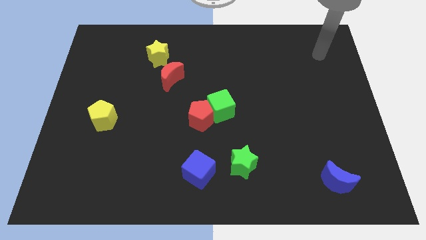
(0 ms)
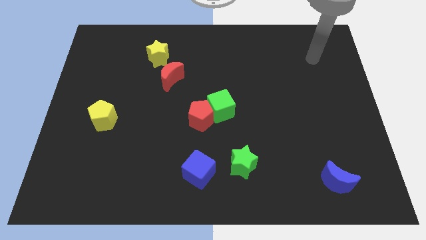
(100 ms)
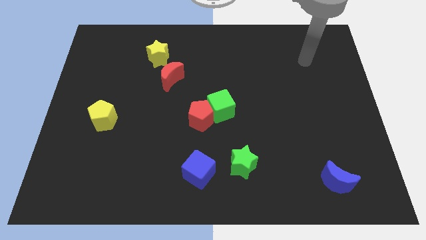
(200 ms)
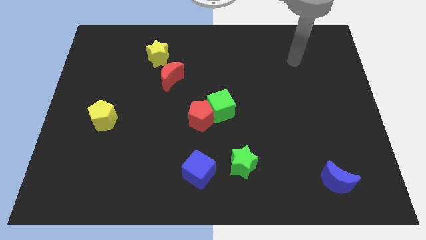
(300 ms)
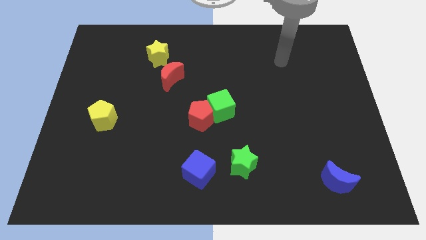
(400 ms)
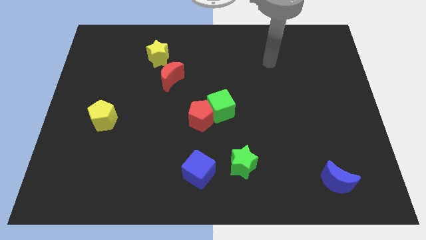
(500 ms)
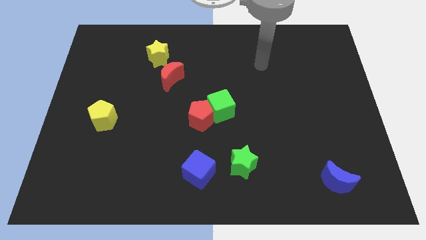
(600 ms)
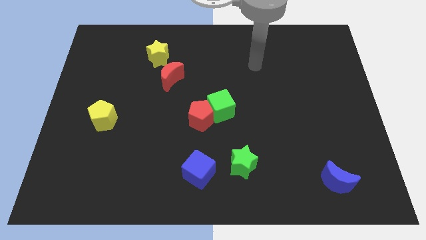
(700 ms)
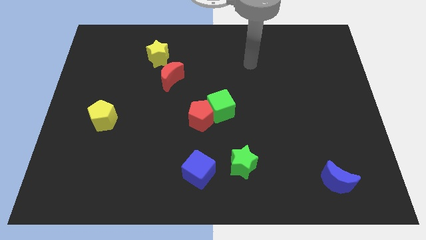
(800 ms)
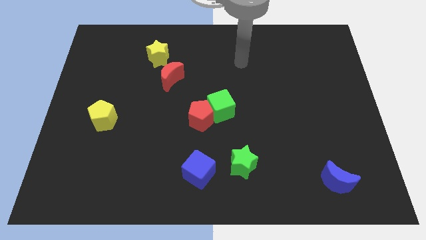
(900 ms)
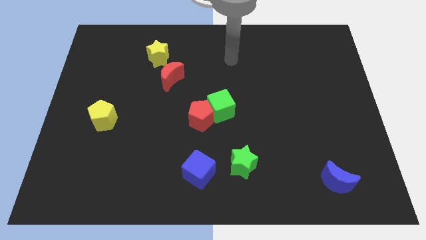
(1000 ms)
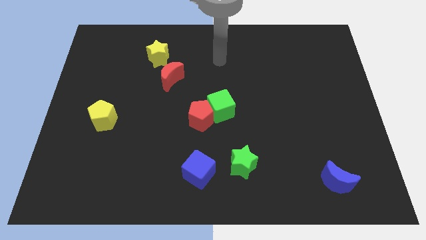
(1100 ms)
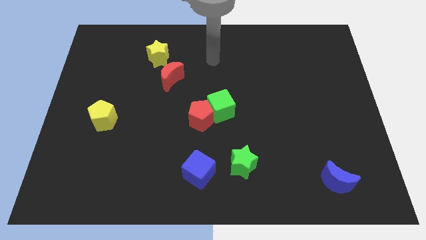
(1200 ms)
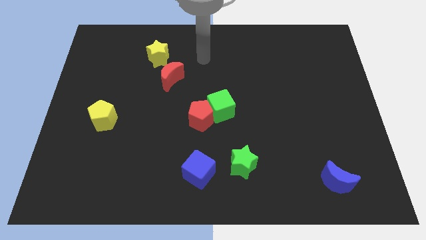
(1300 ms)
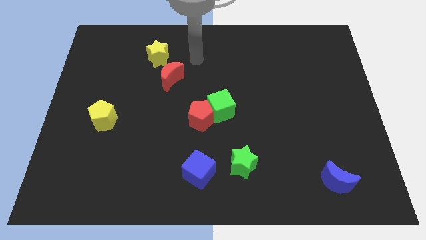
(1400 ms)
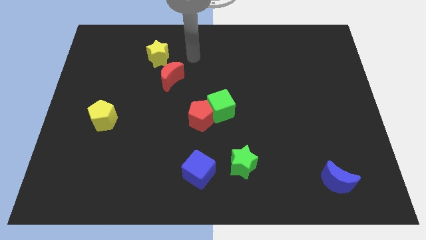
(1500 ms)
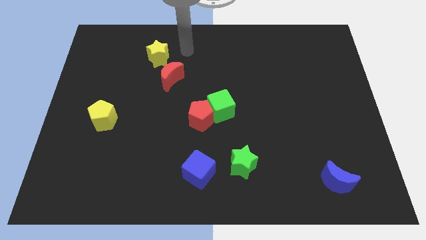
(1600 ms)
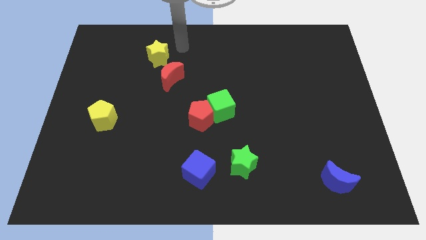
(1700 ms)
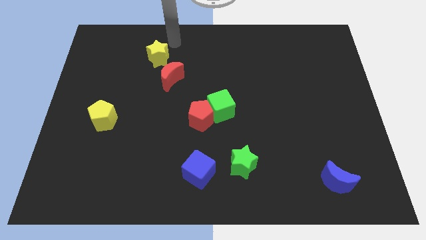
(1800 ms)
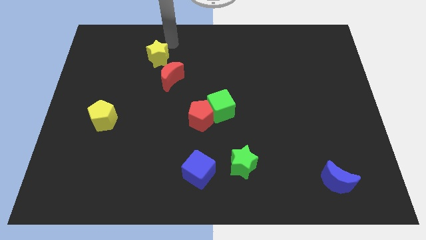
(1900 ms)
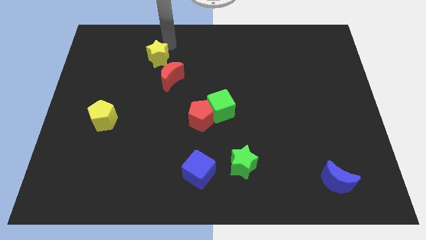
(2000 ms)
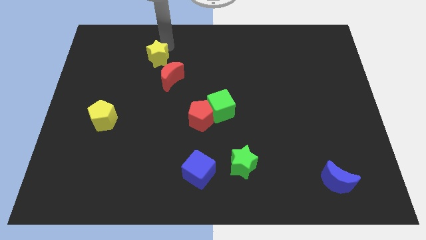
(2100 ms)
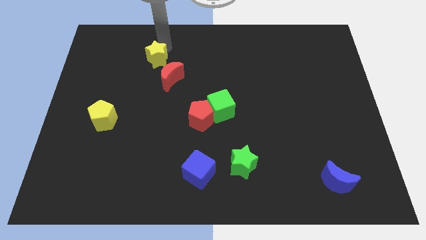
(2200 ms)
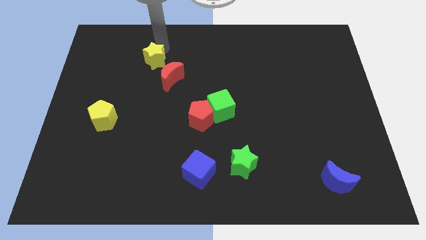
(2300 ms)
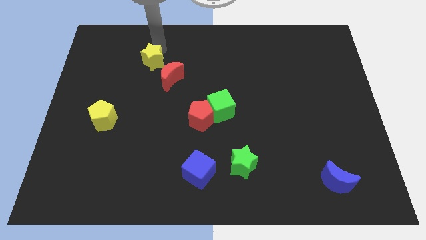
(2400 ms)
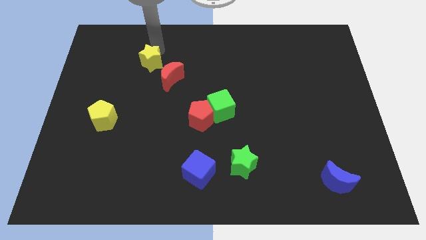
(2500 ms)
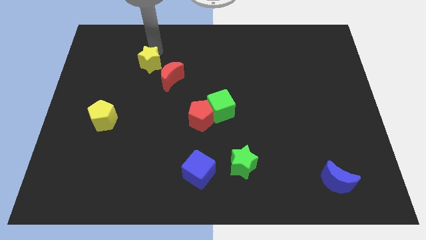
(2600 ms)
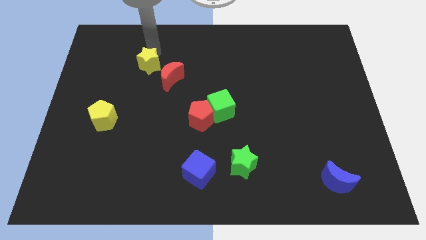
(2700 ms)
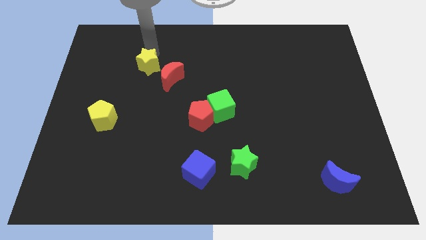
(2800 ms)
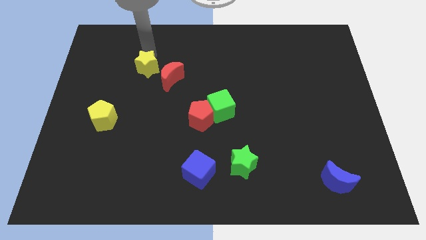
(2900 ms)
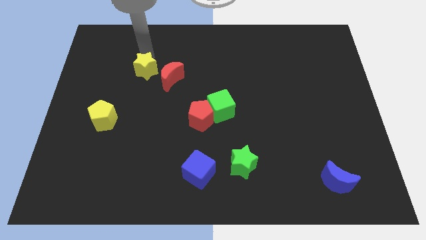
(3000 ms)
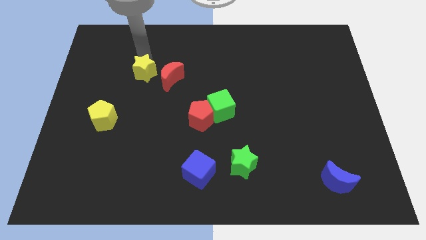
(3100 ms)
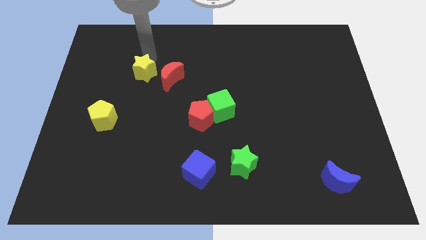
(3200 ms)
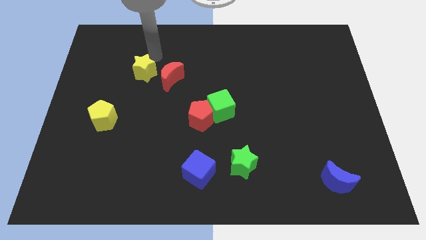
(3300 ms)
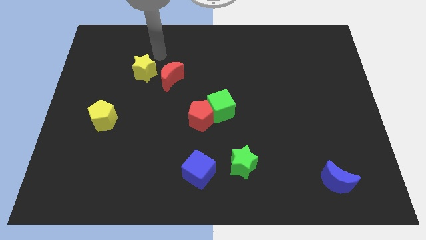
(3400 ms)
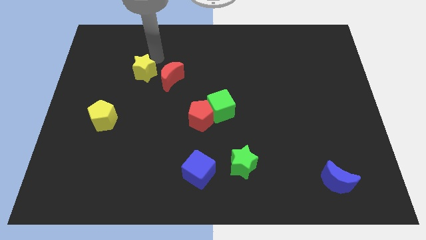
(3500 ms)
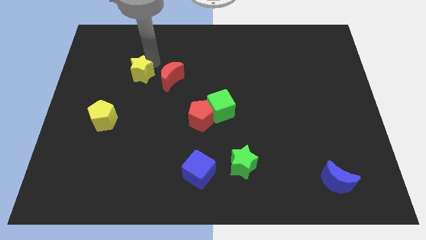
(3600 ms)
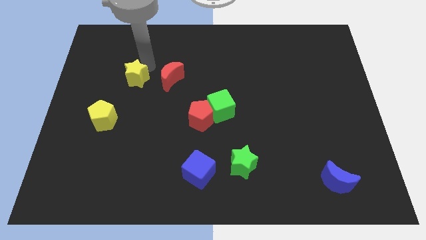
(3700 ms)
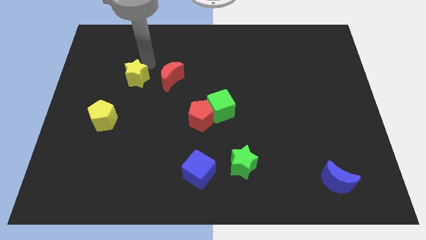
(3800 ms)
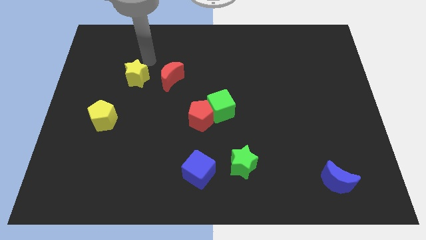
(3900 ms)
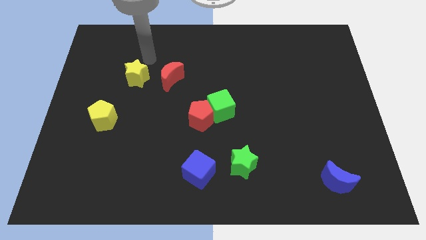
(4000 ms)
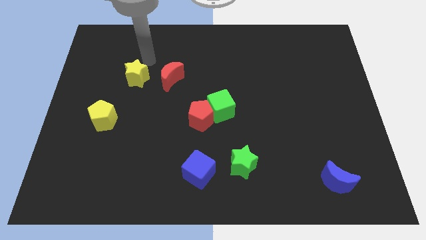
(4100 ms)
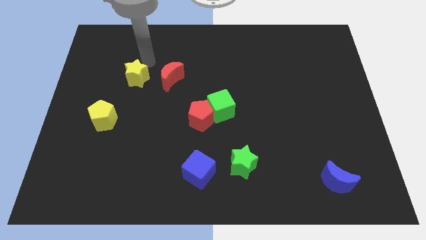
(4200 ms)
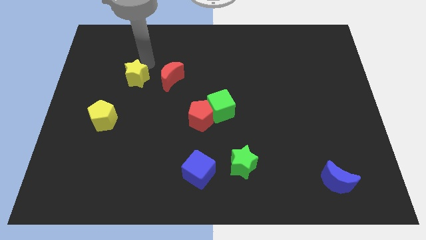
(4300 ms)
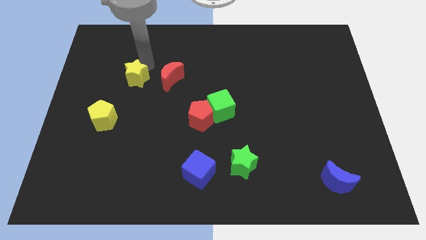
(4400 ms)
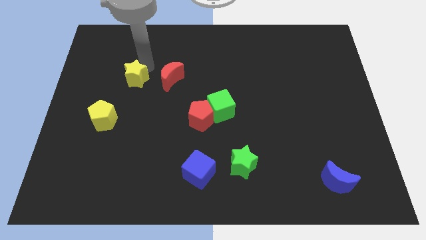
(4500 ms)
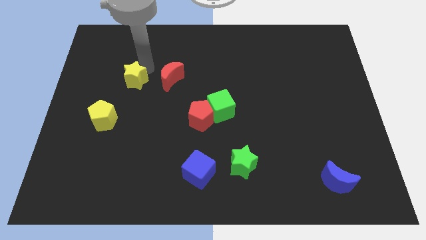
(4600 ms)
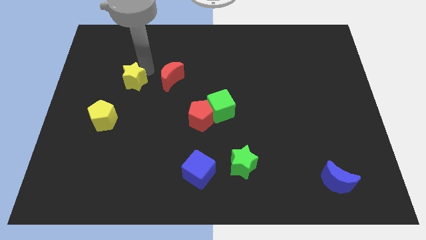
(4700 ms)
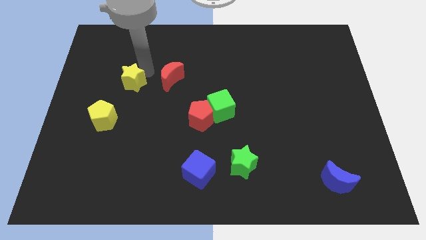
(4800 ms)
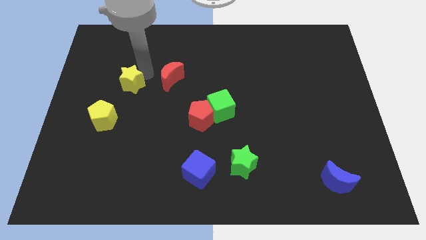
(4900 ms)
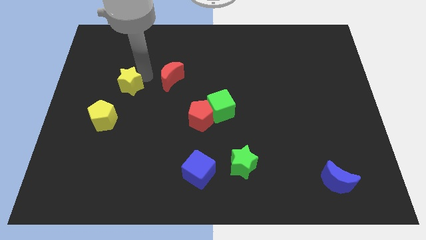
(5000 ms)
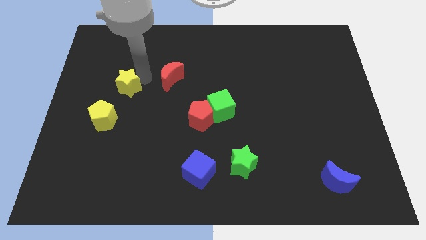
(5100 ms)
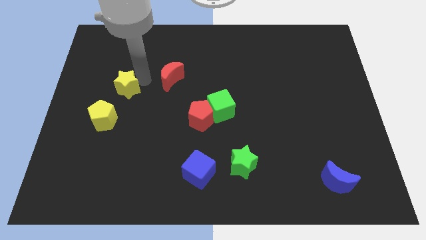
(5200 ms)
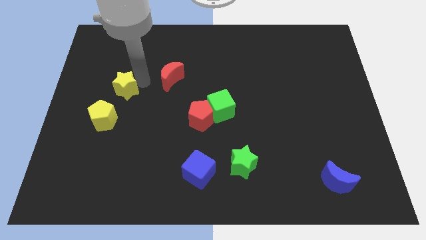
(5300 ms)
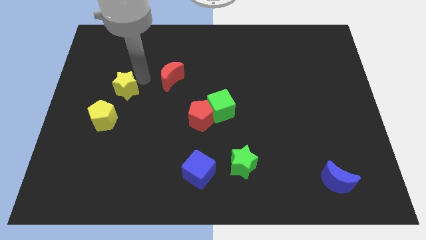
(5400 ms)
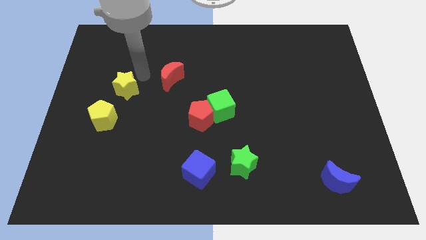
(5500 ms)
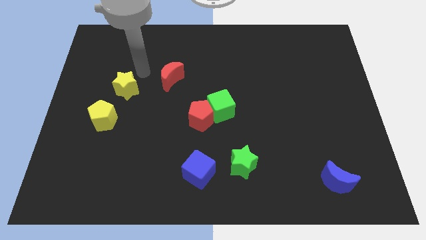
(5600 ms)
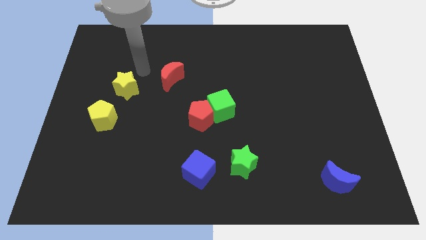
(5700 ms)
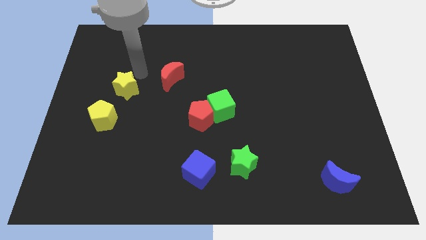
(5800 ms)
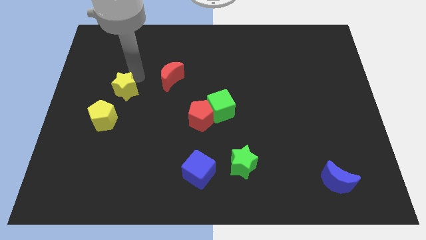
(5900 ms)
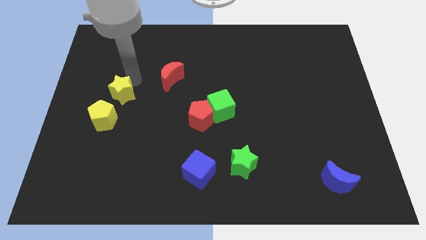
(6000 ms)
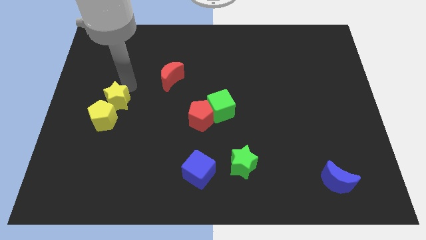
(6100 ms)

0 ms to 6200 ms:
slide the yellow star next to the yellow pentagon

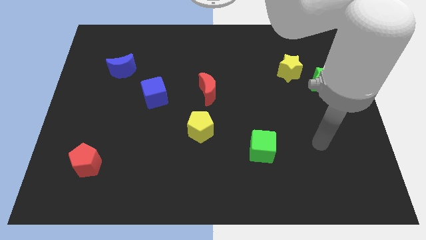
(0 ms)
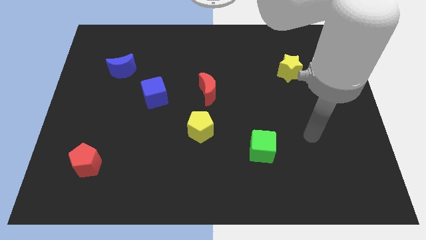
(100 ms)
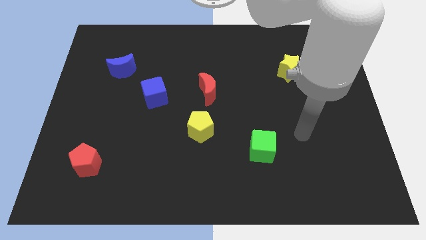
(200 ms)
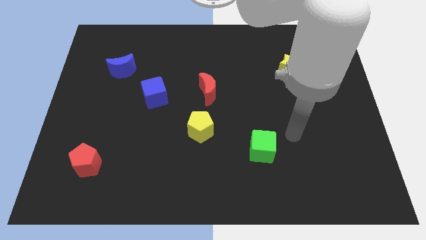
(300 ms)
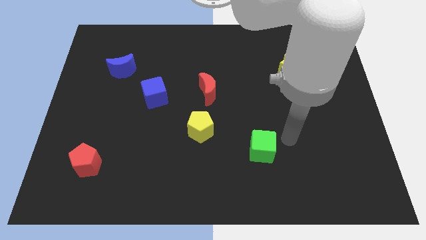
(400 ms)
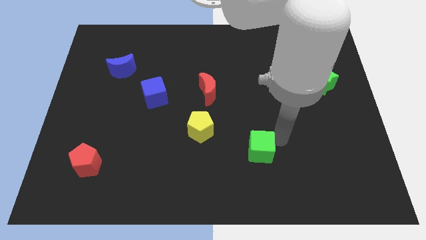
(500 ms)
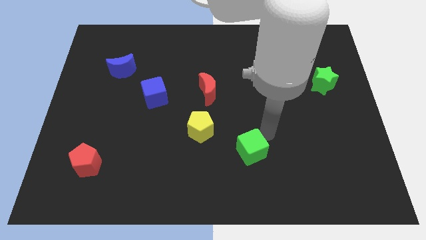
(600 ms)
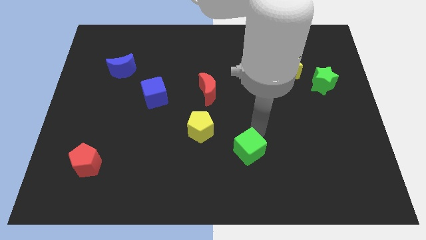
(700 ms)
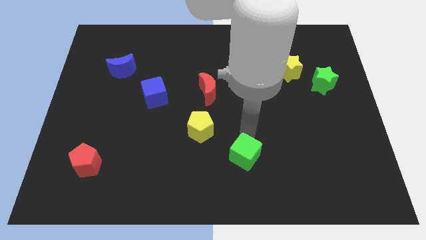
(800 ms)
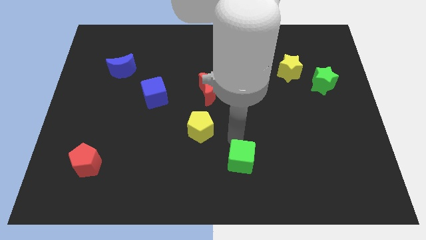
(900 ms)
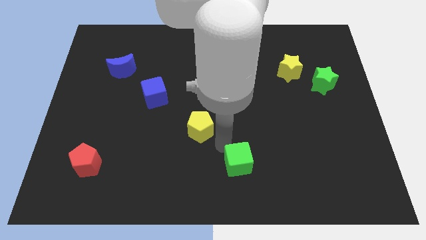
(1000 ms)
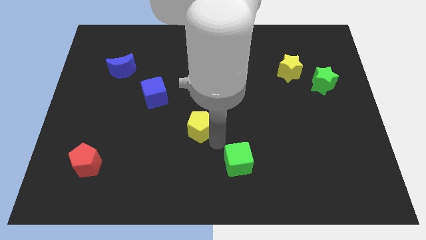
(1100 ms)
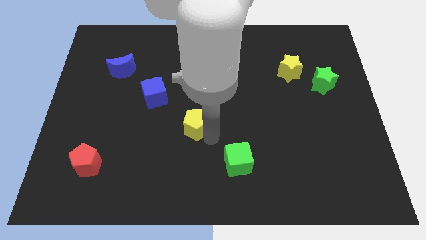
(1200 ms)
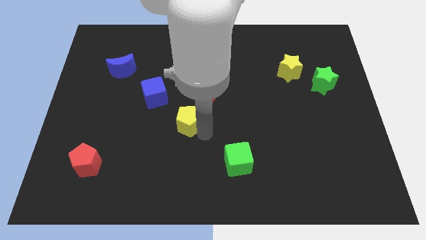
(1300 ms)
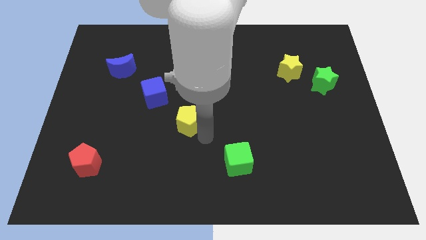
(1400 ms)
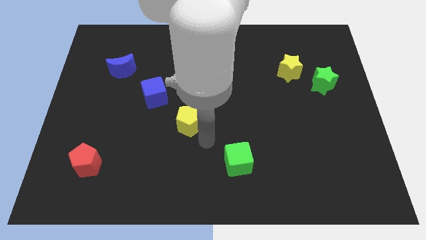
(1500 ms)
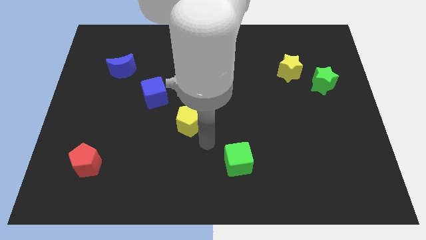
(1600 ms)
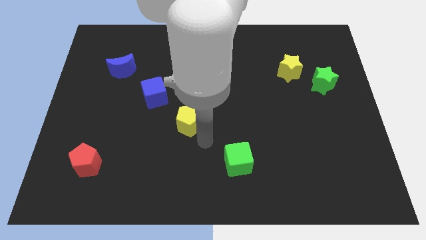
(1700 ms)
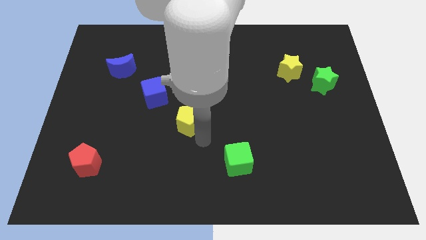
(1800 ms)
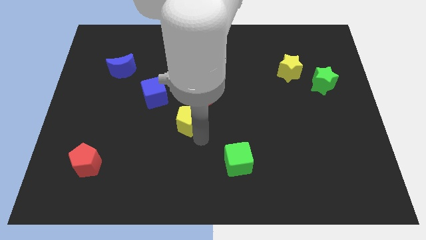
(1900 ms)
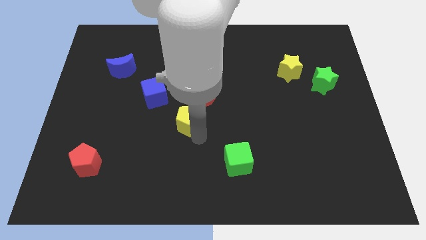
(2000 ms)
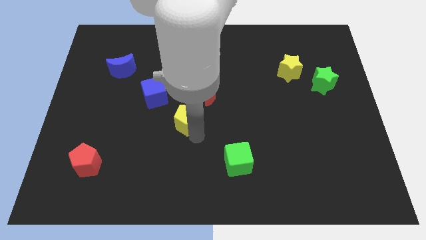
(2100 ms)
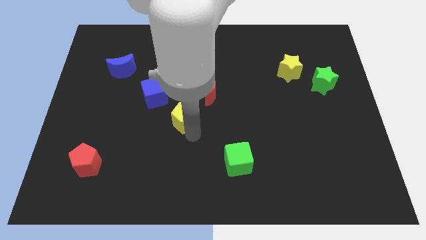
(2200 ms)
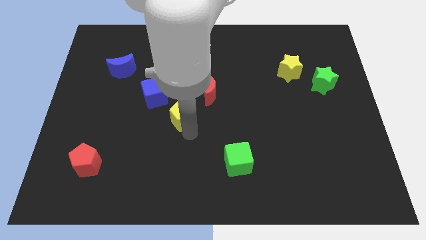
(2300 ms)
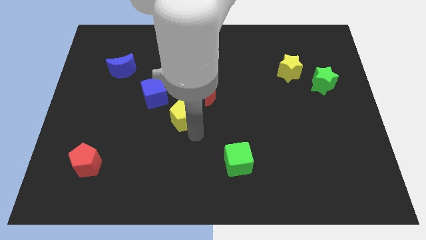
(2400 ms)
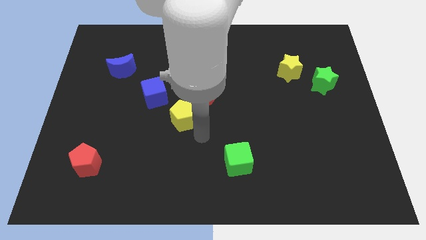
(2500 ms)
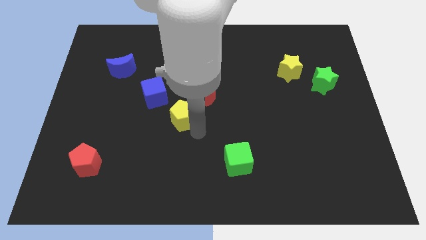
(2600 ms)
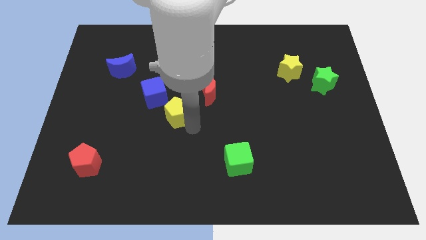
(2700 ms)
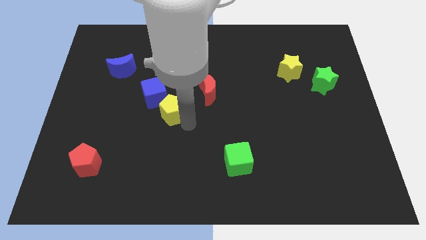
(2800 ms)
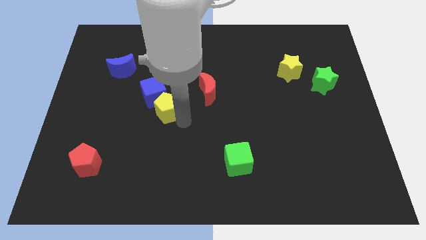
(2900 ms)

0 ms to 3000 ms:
push the yellow pentagon towards the blue cube
